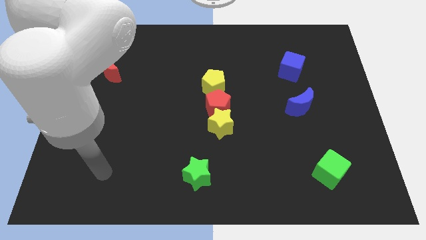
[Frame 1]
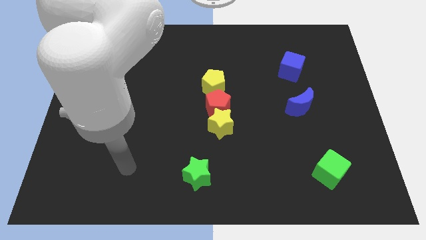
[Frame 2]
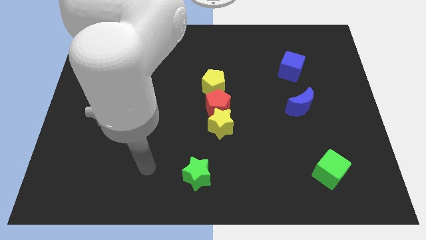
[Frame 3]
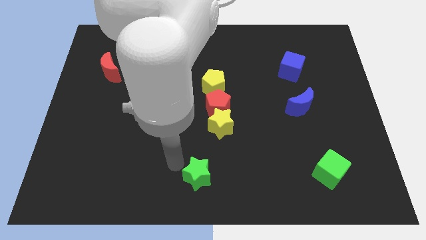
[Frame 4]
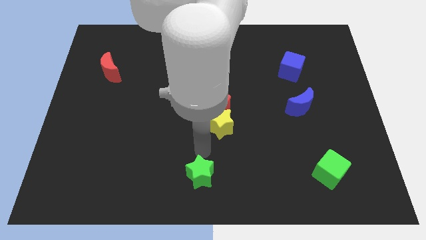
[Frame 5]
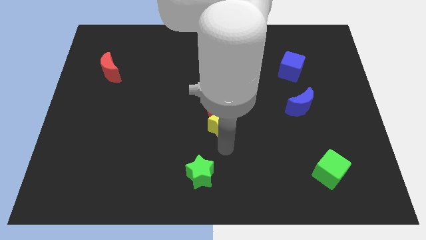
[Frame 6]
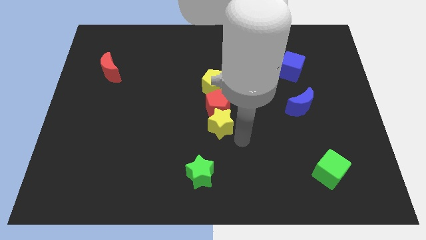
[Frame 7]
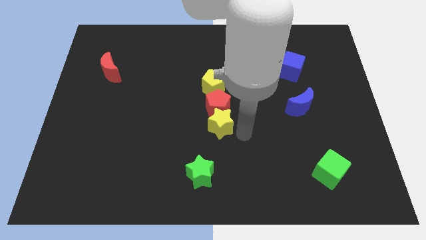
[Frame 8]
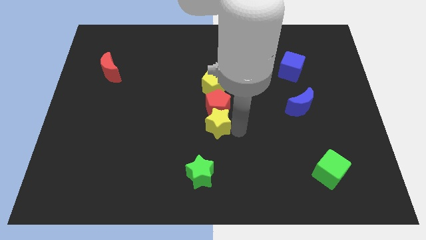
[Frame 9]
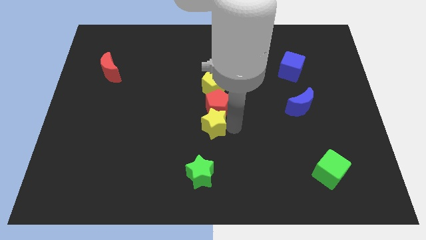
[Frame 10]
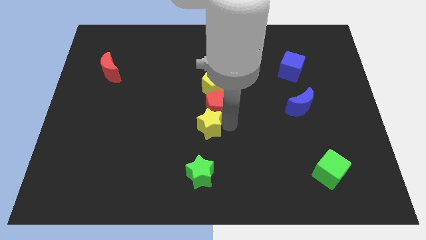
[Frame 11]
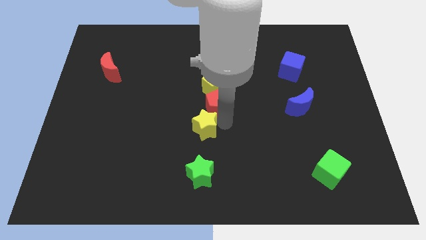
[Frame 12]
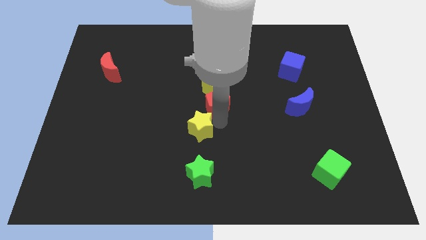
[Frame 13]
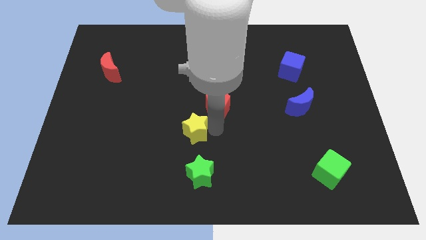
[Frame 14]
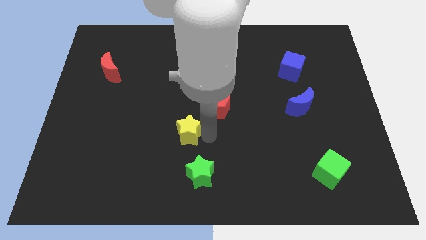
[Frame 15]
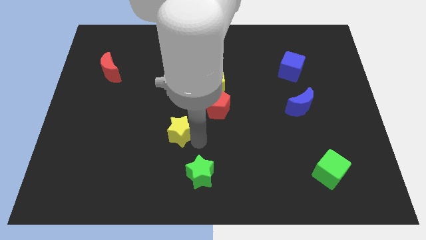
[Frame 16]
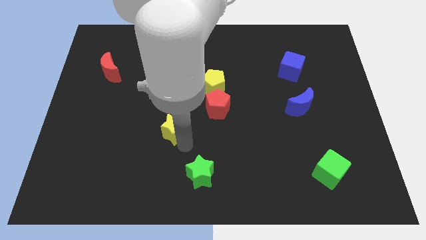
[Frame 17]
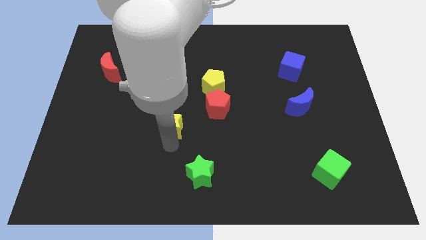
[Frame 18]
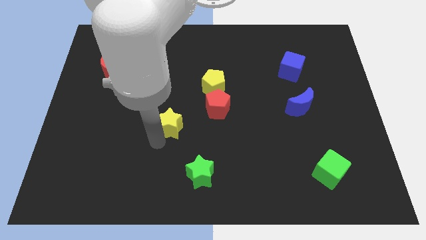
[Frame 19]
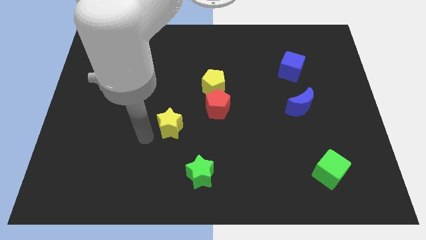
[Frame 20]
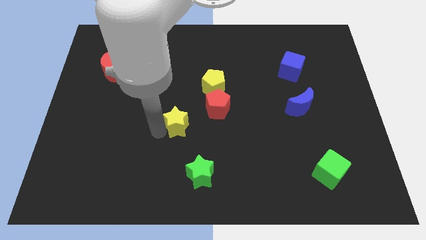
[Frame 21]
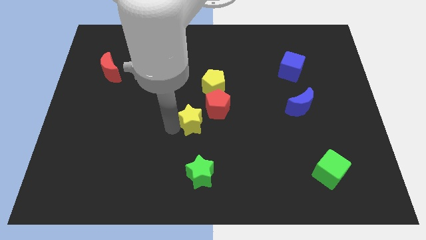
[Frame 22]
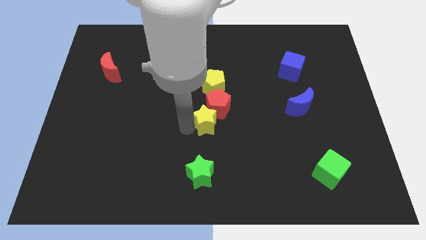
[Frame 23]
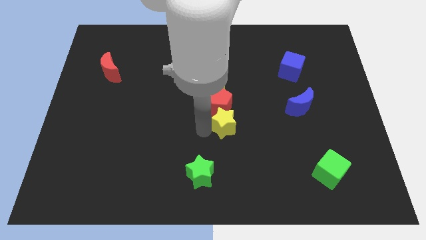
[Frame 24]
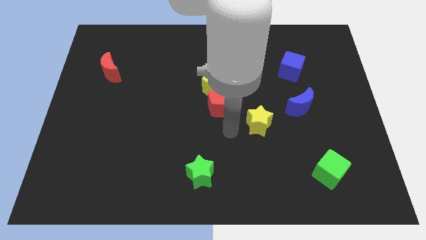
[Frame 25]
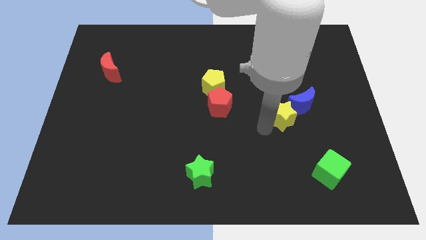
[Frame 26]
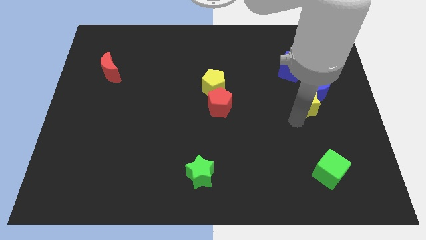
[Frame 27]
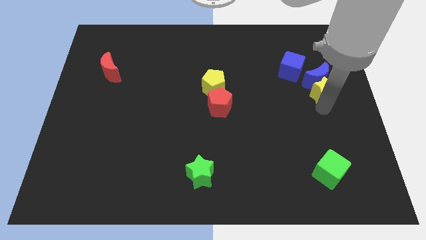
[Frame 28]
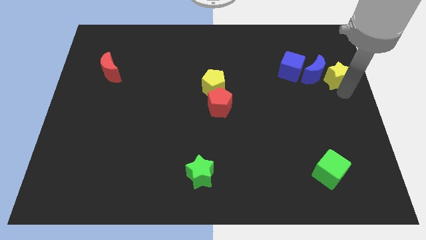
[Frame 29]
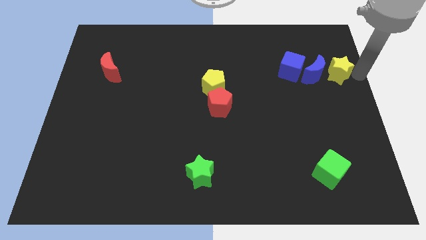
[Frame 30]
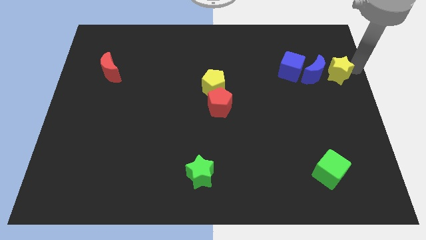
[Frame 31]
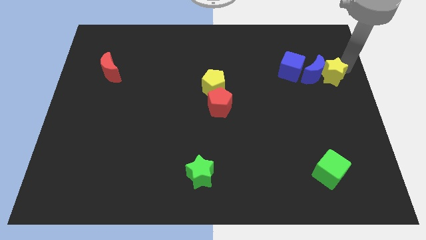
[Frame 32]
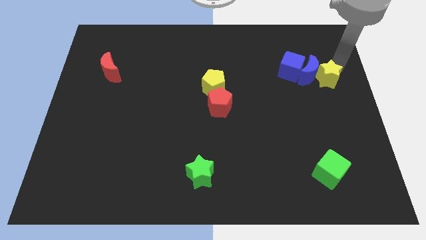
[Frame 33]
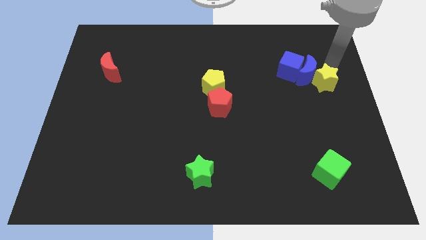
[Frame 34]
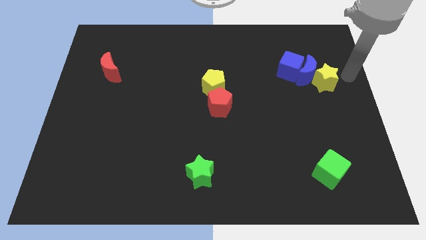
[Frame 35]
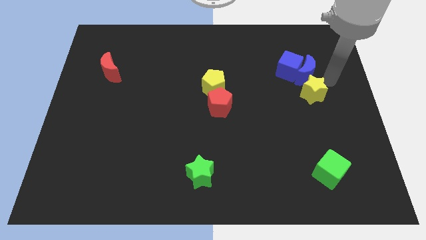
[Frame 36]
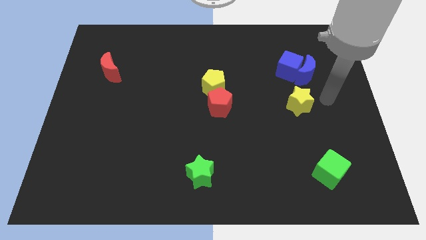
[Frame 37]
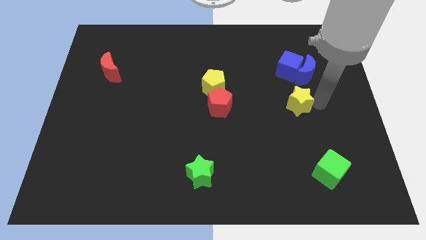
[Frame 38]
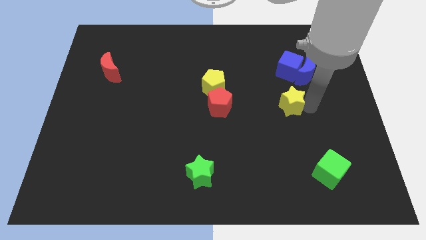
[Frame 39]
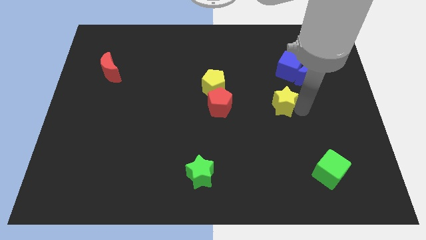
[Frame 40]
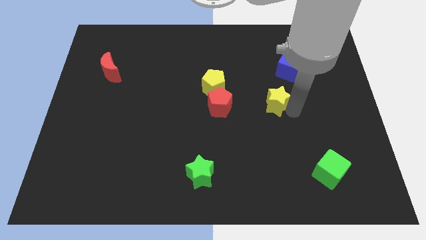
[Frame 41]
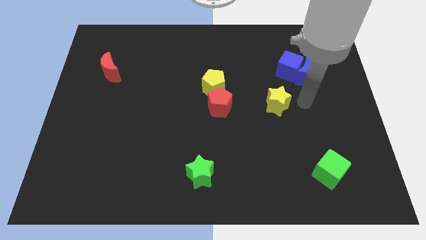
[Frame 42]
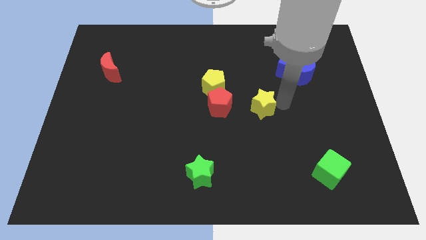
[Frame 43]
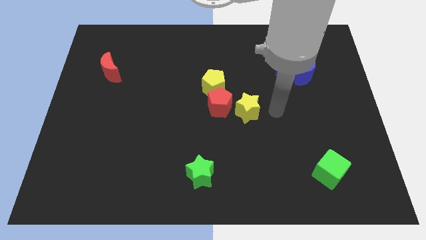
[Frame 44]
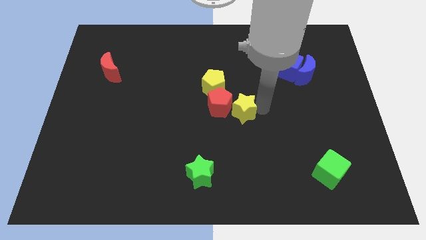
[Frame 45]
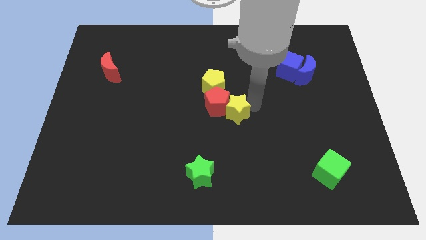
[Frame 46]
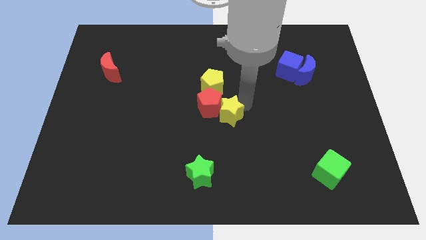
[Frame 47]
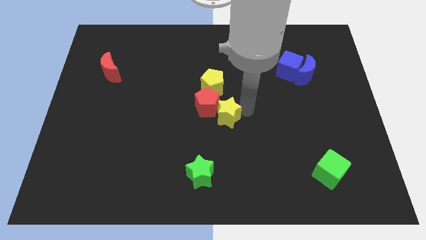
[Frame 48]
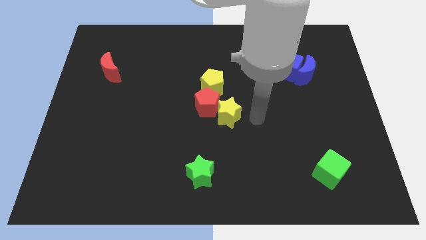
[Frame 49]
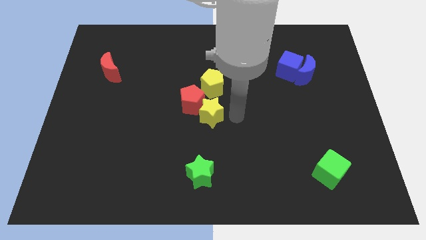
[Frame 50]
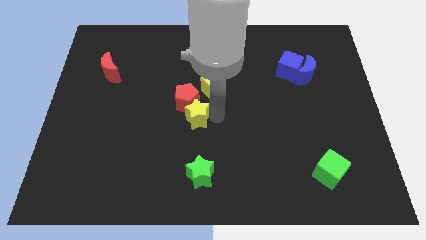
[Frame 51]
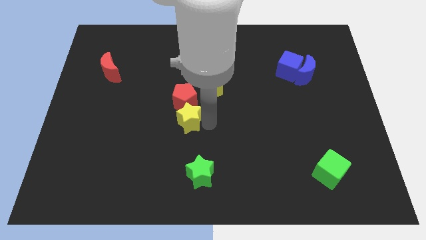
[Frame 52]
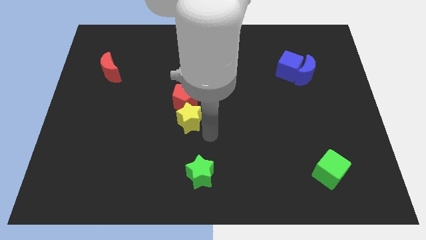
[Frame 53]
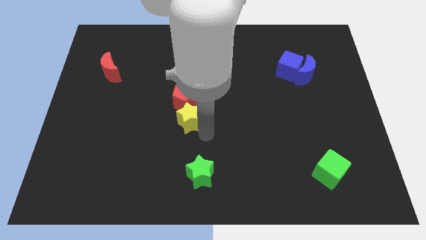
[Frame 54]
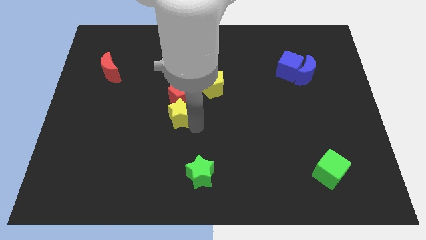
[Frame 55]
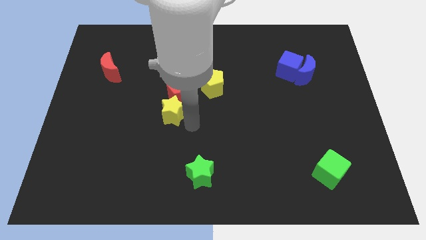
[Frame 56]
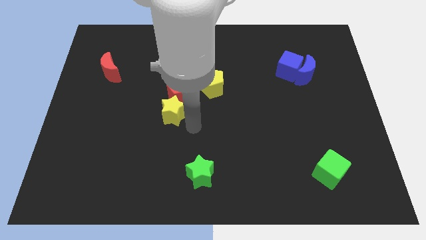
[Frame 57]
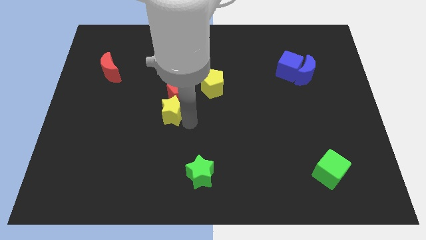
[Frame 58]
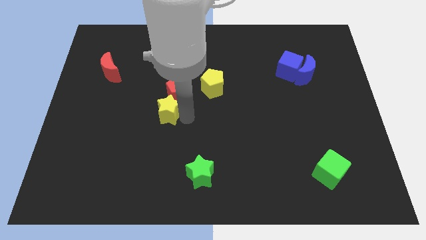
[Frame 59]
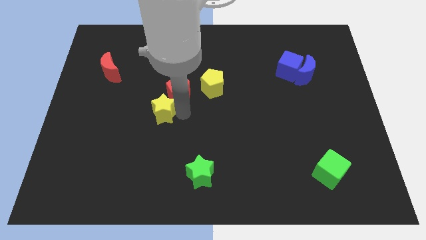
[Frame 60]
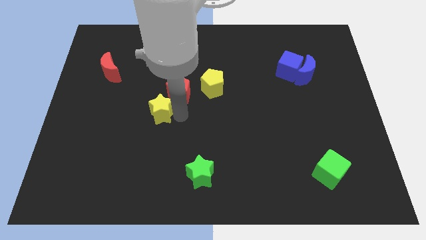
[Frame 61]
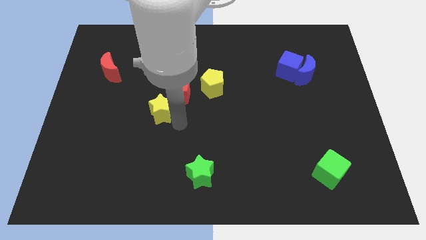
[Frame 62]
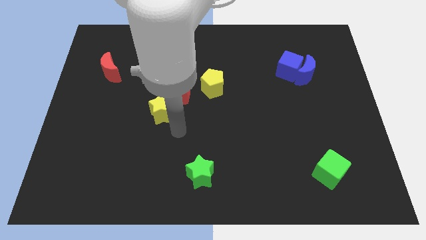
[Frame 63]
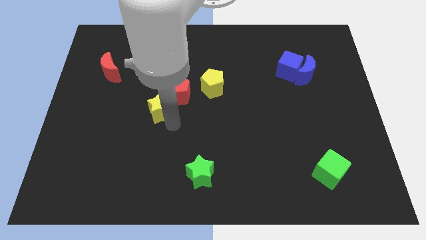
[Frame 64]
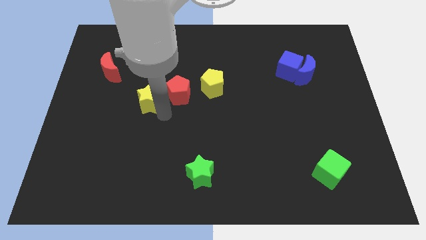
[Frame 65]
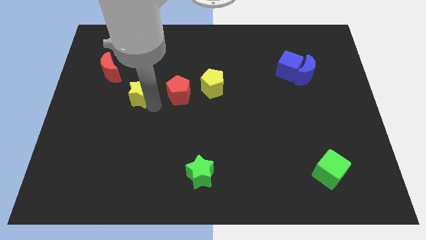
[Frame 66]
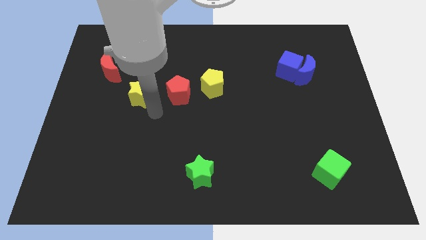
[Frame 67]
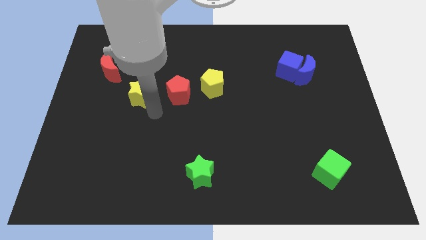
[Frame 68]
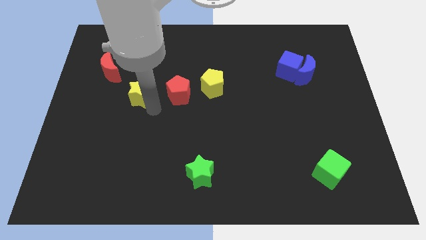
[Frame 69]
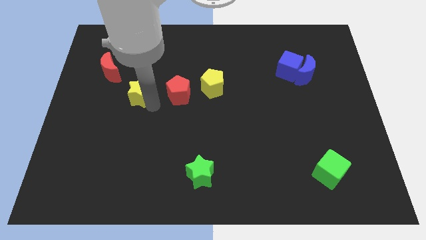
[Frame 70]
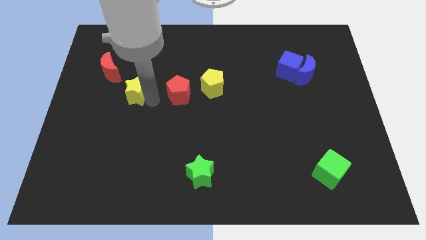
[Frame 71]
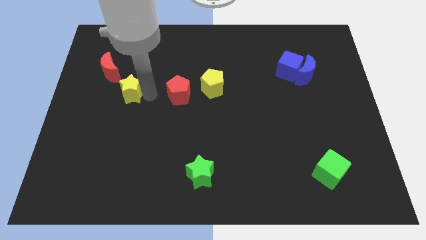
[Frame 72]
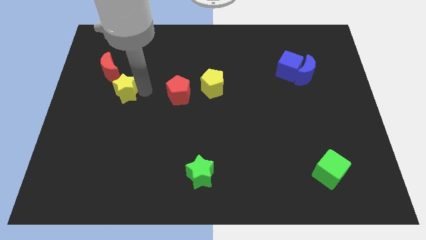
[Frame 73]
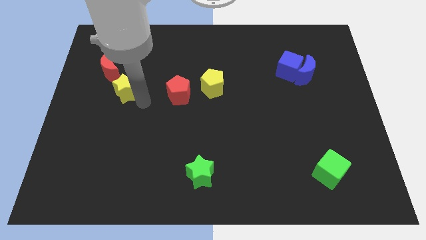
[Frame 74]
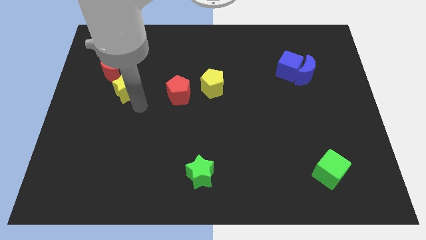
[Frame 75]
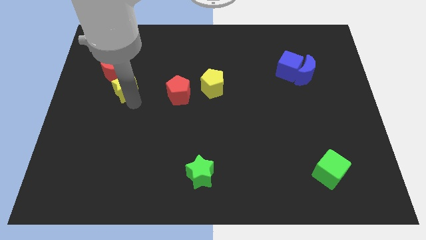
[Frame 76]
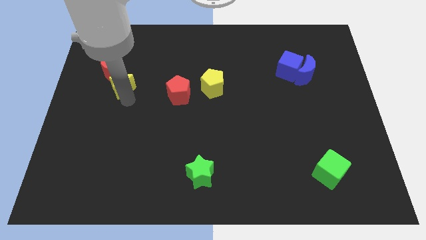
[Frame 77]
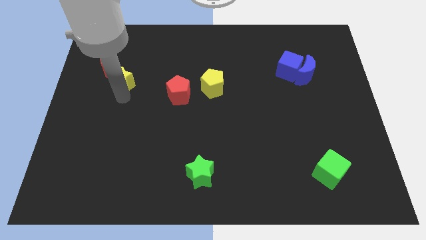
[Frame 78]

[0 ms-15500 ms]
move the yellow star towards the red moon
